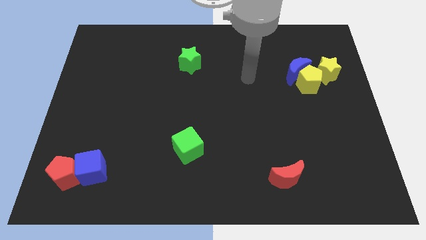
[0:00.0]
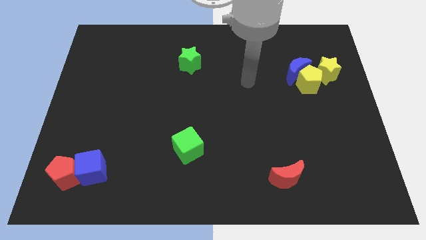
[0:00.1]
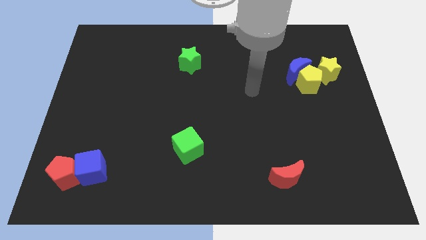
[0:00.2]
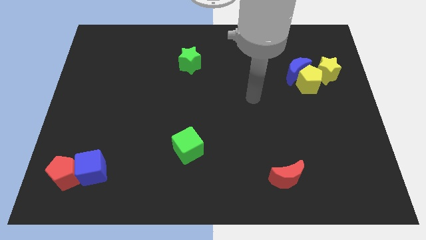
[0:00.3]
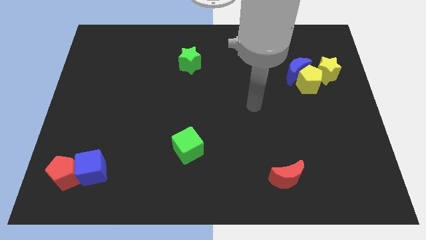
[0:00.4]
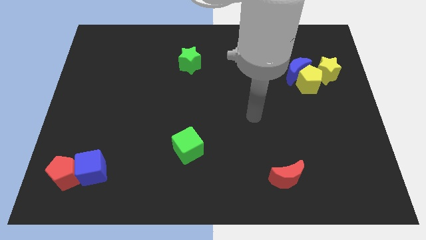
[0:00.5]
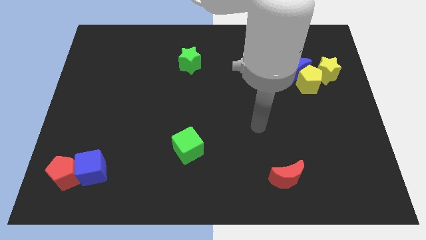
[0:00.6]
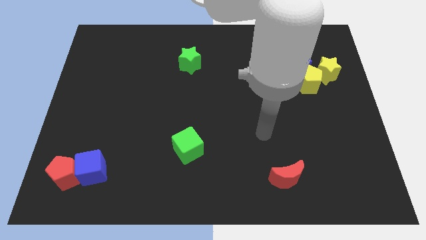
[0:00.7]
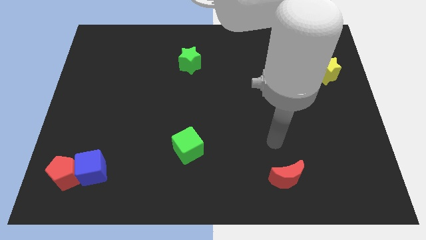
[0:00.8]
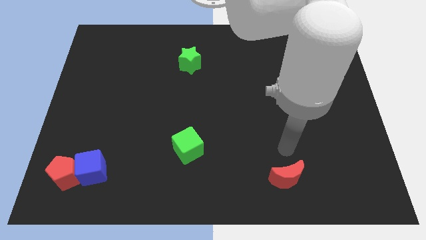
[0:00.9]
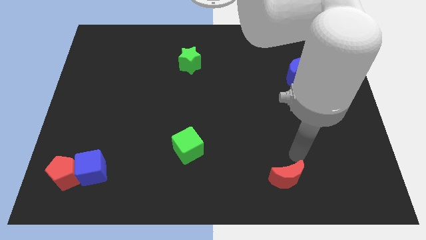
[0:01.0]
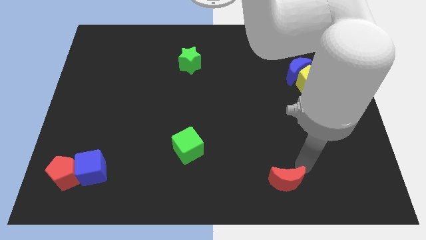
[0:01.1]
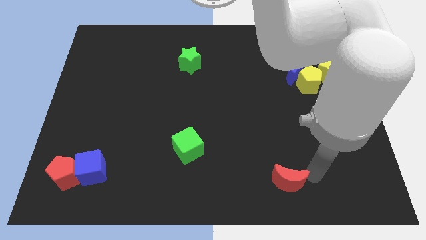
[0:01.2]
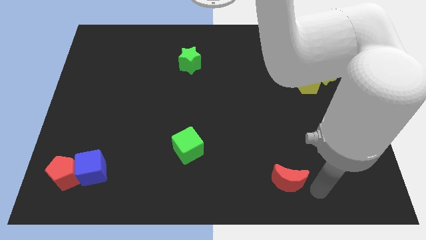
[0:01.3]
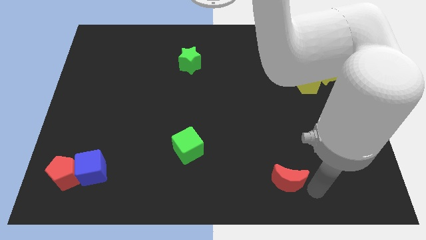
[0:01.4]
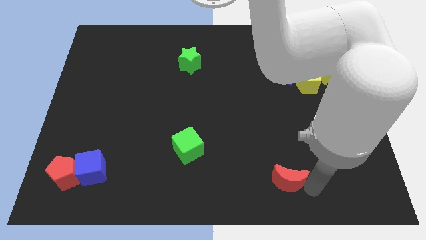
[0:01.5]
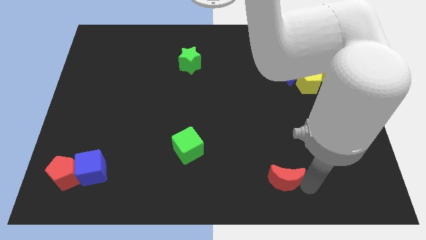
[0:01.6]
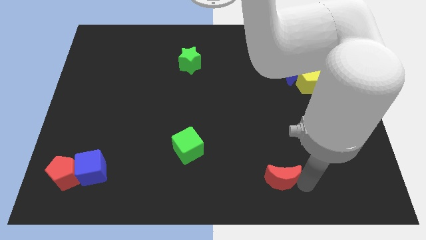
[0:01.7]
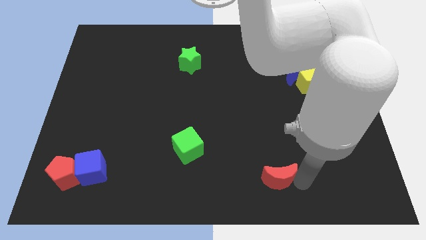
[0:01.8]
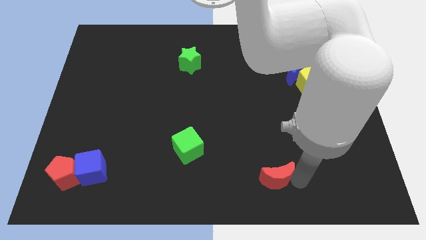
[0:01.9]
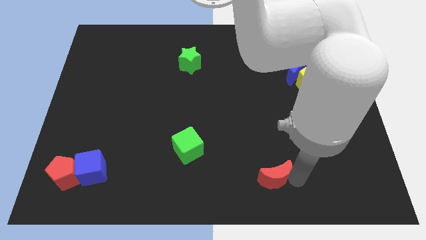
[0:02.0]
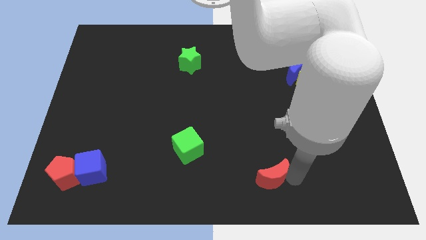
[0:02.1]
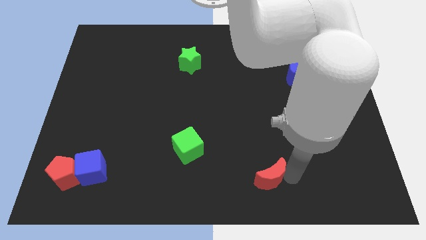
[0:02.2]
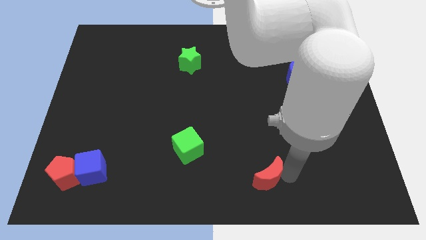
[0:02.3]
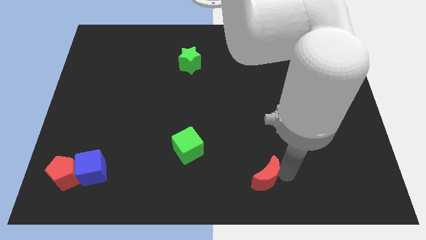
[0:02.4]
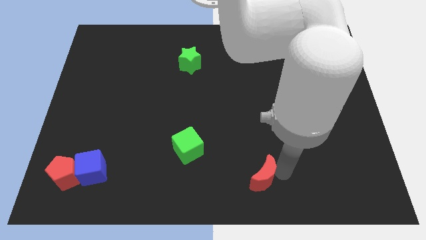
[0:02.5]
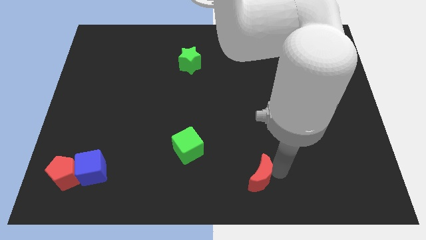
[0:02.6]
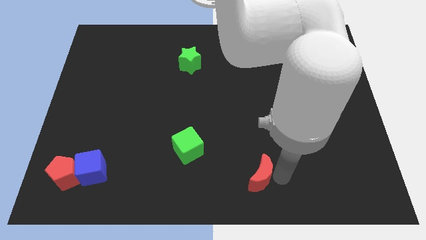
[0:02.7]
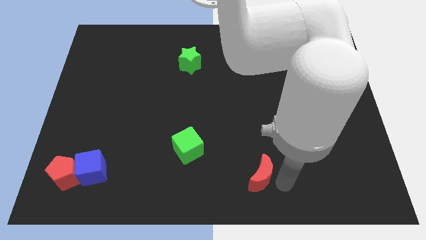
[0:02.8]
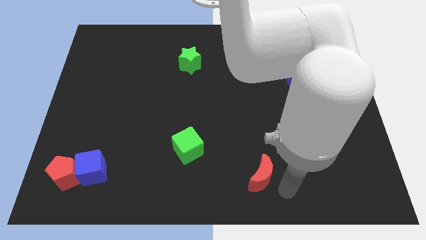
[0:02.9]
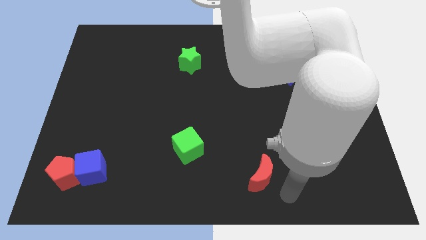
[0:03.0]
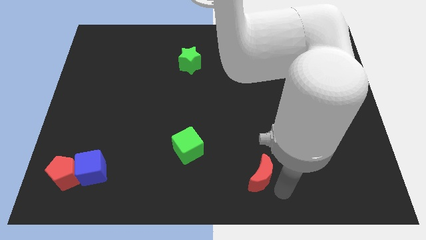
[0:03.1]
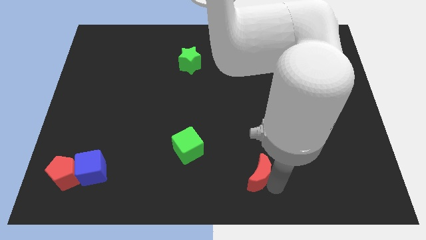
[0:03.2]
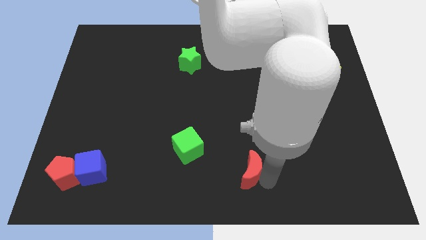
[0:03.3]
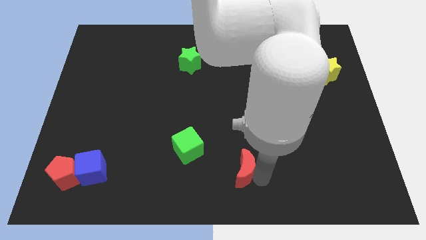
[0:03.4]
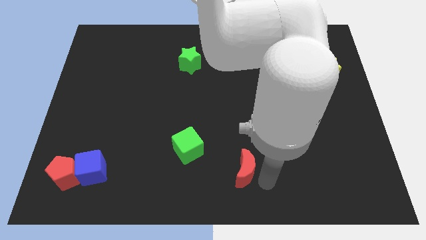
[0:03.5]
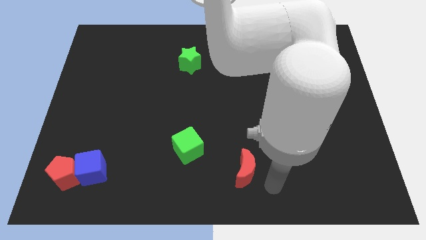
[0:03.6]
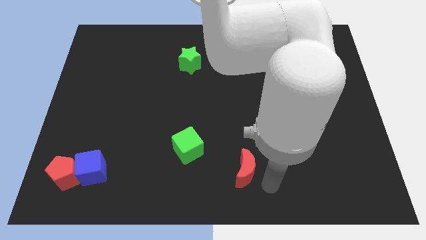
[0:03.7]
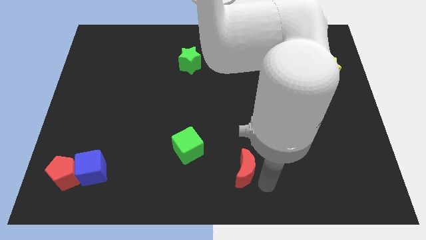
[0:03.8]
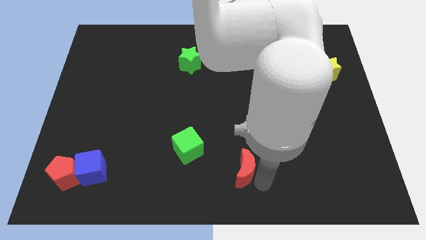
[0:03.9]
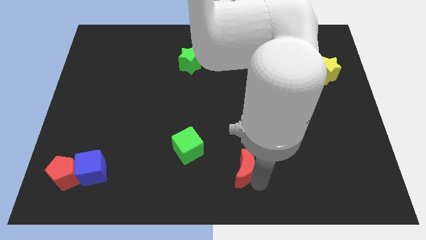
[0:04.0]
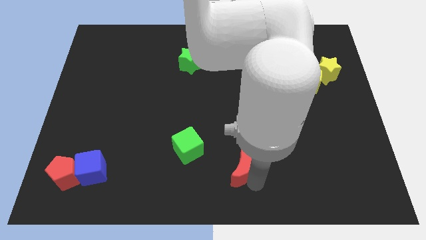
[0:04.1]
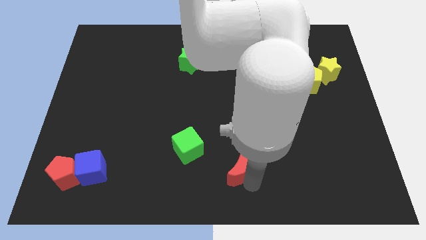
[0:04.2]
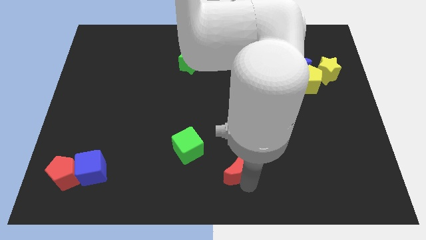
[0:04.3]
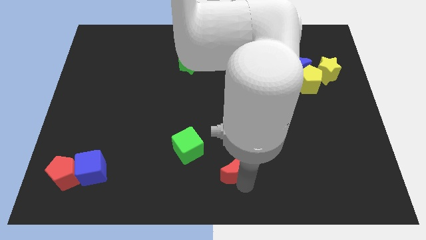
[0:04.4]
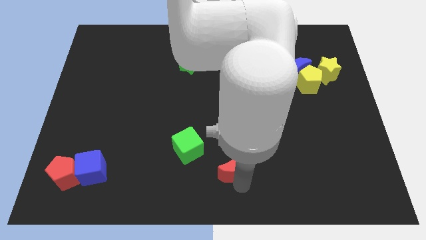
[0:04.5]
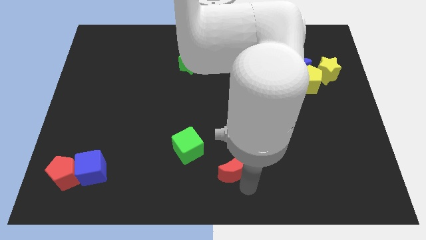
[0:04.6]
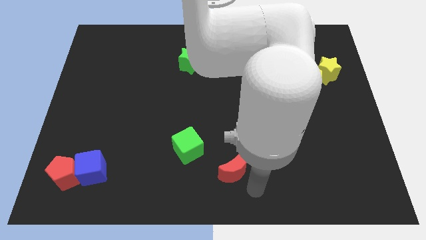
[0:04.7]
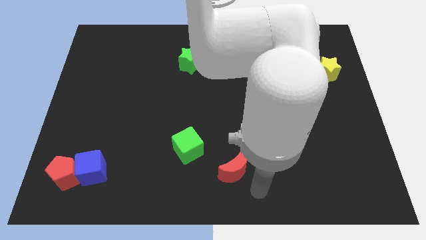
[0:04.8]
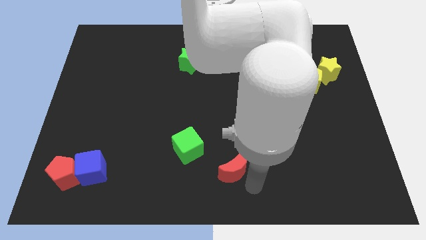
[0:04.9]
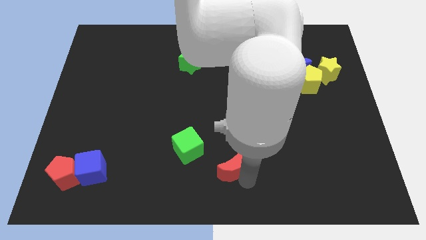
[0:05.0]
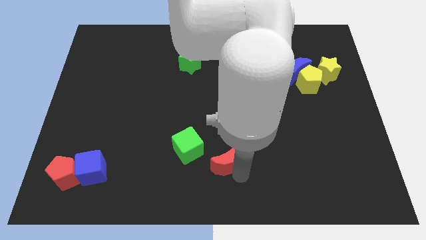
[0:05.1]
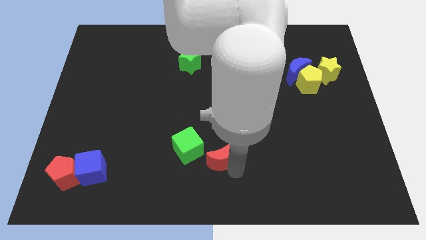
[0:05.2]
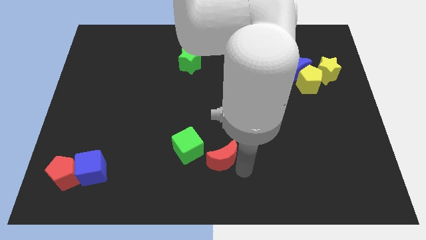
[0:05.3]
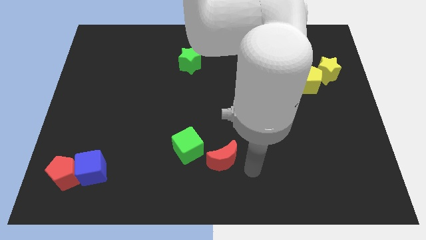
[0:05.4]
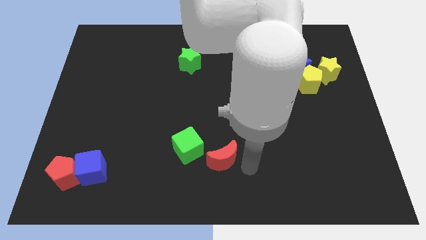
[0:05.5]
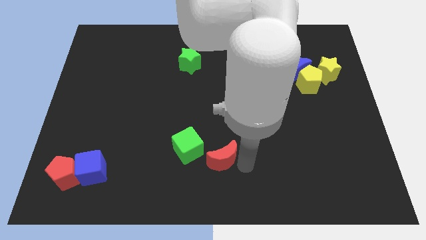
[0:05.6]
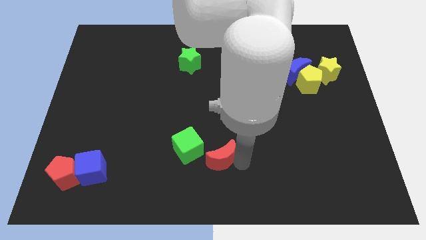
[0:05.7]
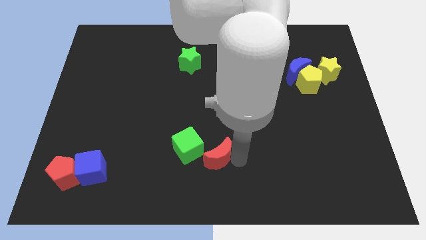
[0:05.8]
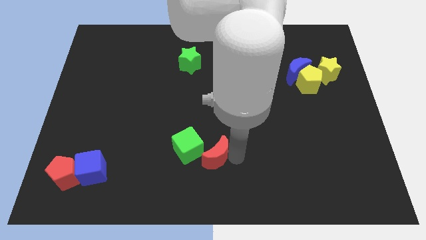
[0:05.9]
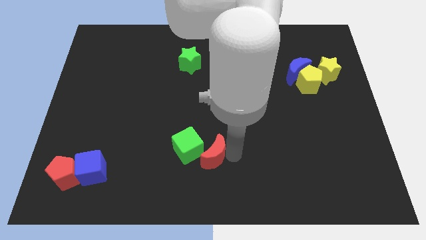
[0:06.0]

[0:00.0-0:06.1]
put the red moon to the green cube

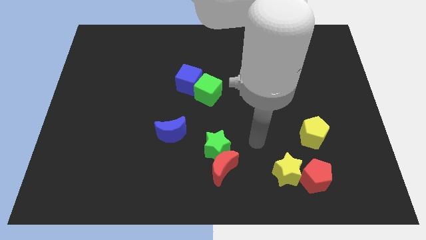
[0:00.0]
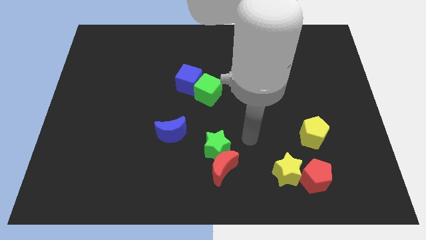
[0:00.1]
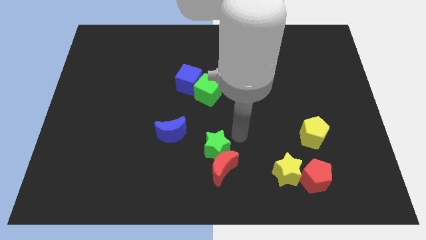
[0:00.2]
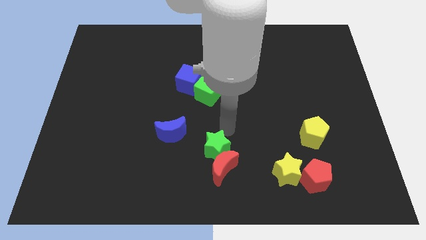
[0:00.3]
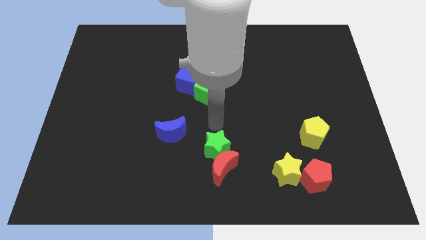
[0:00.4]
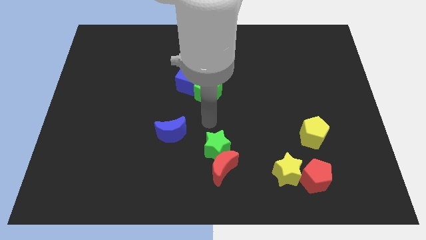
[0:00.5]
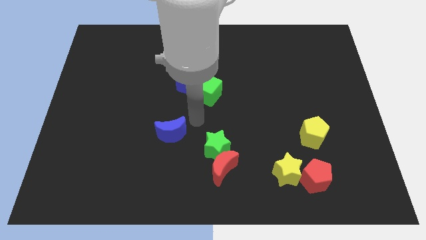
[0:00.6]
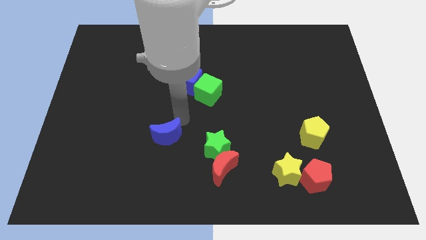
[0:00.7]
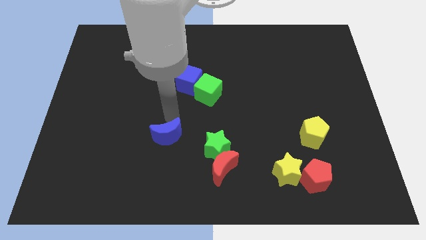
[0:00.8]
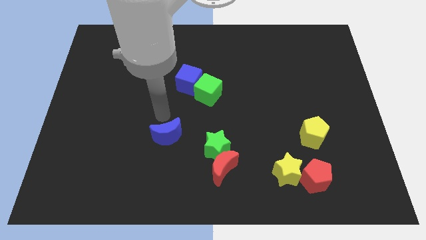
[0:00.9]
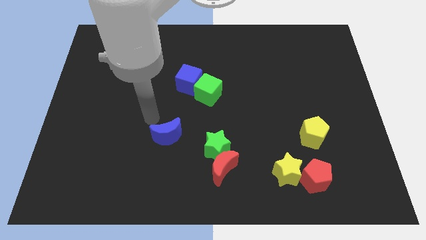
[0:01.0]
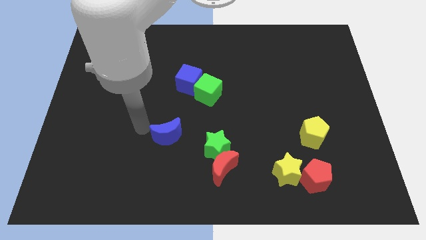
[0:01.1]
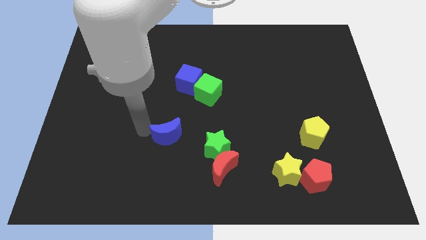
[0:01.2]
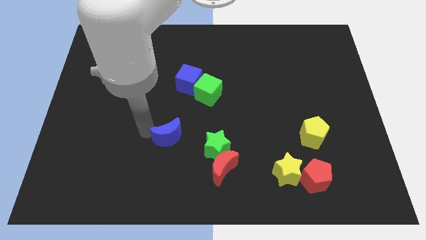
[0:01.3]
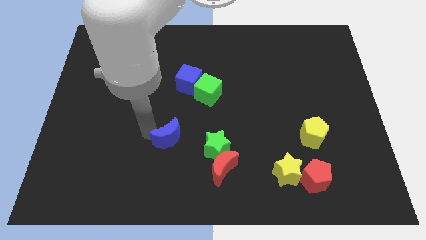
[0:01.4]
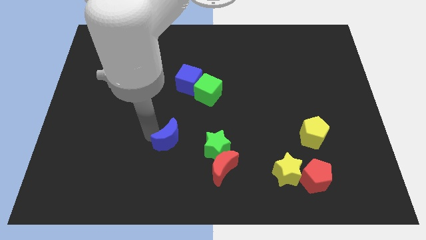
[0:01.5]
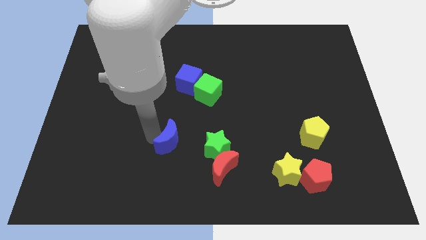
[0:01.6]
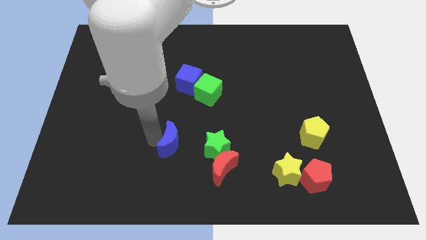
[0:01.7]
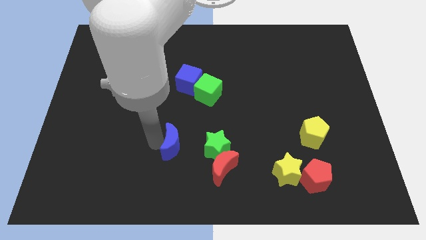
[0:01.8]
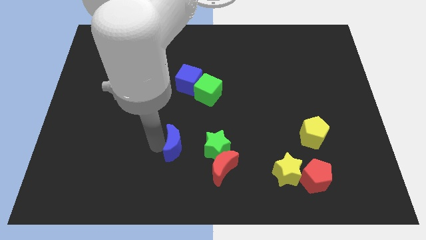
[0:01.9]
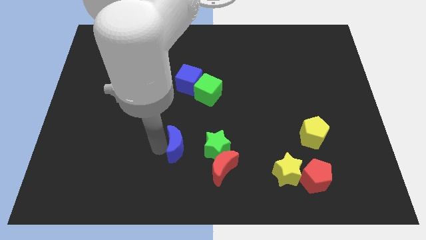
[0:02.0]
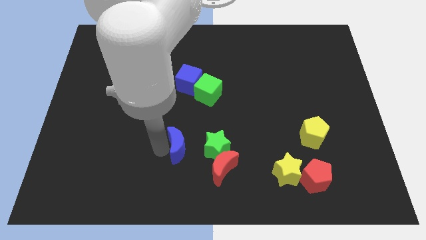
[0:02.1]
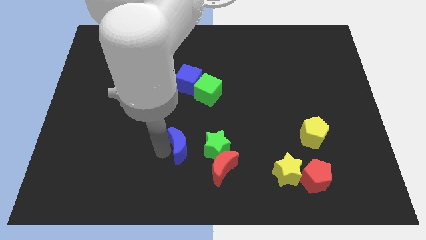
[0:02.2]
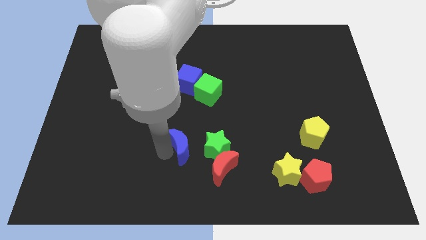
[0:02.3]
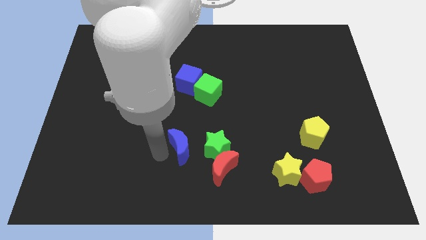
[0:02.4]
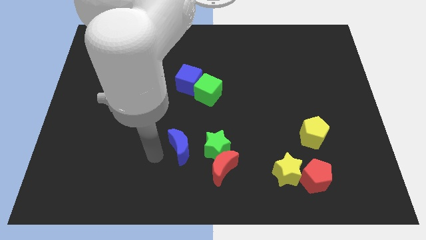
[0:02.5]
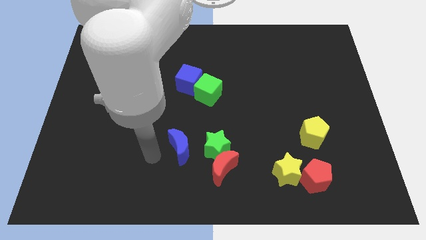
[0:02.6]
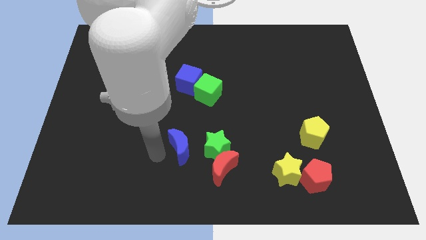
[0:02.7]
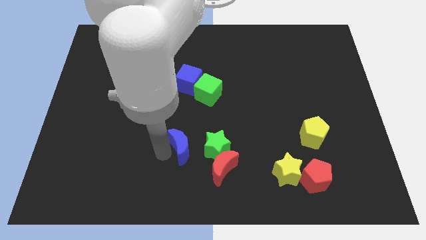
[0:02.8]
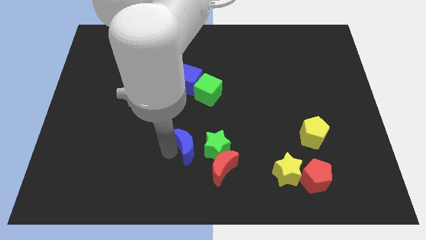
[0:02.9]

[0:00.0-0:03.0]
slide the blue moon close to the green star
